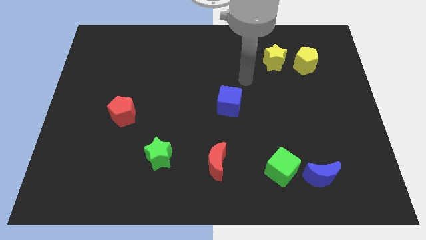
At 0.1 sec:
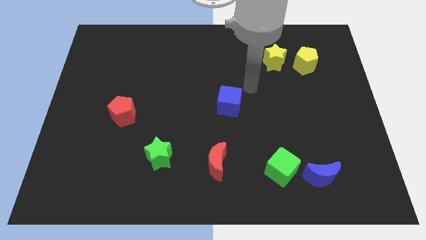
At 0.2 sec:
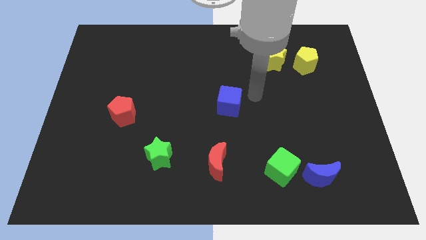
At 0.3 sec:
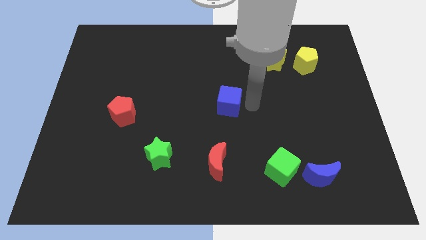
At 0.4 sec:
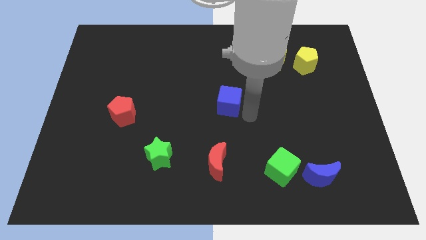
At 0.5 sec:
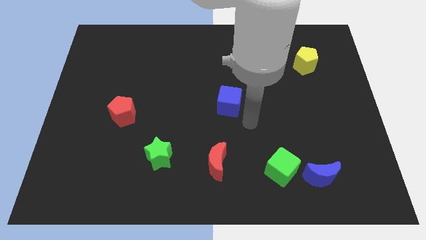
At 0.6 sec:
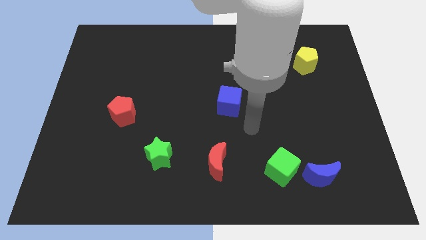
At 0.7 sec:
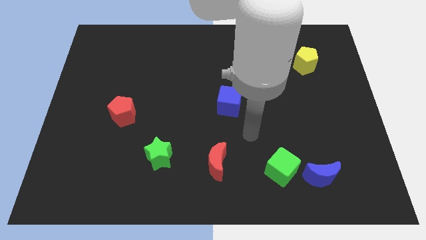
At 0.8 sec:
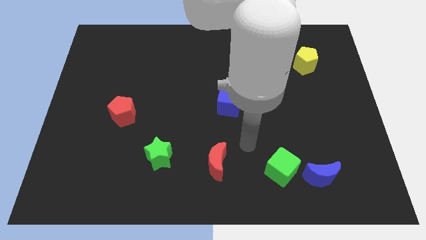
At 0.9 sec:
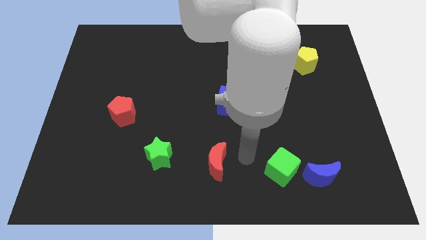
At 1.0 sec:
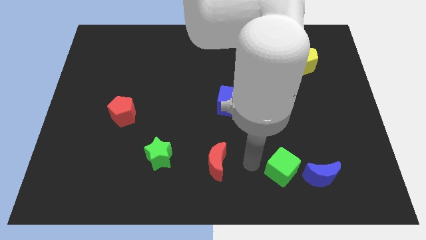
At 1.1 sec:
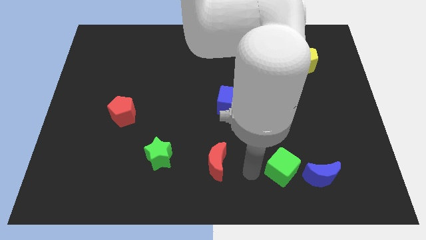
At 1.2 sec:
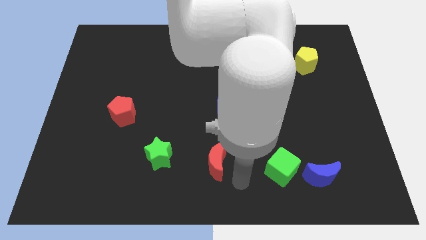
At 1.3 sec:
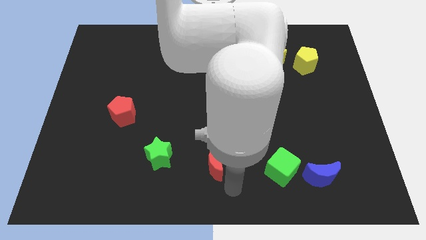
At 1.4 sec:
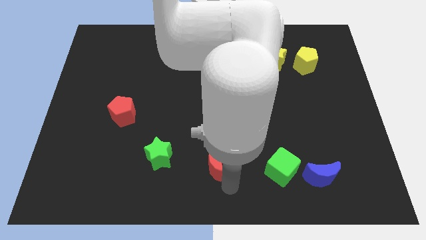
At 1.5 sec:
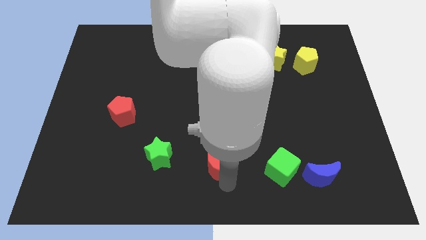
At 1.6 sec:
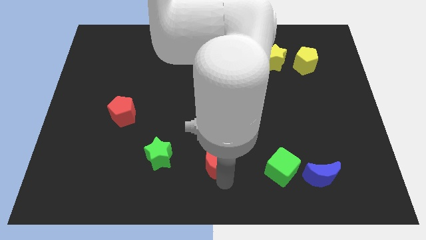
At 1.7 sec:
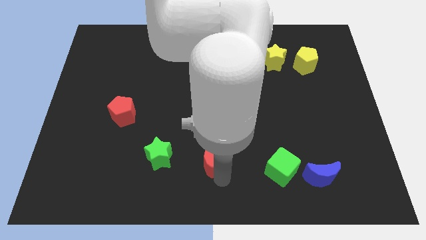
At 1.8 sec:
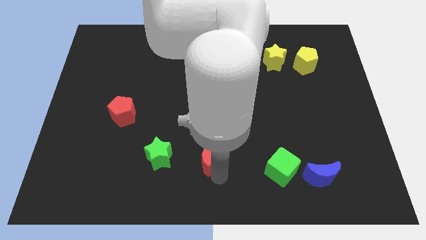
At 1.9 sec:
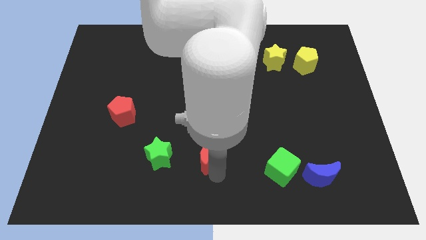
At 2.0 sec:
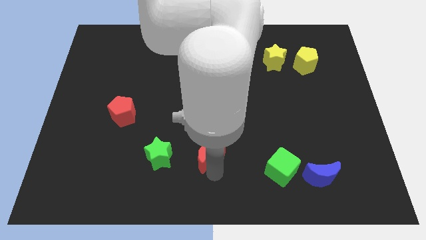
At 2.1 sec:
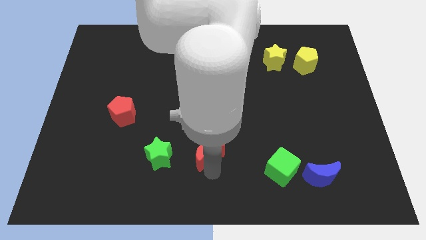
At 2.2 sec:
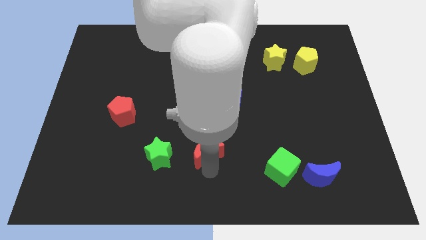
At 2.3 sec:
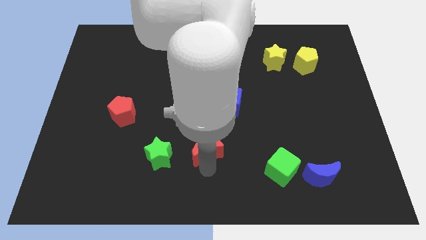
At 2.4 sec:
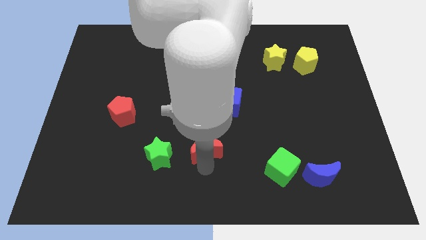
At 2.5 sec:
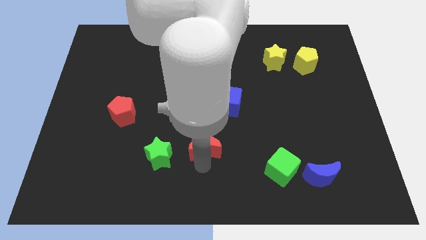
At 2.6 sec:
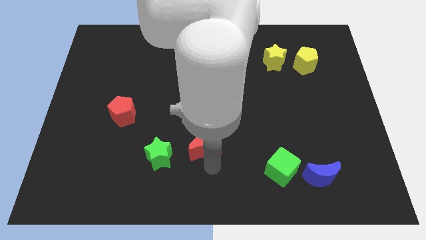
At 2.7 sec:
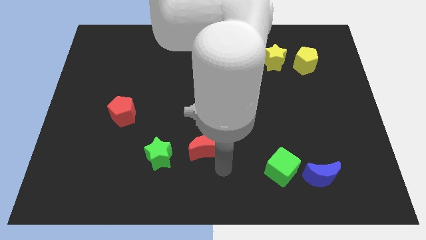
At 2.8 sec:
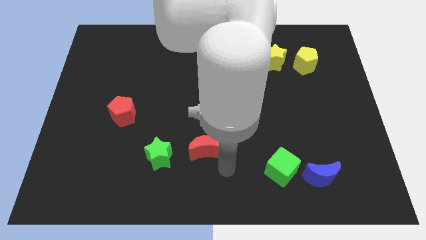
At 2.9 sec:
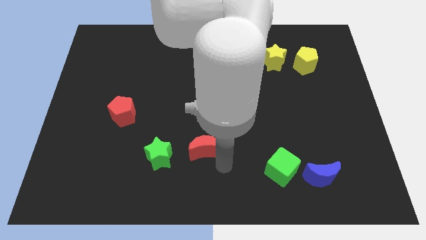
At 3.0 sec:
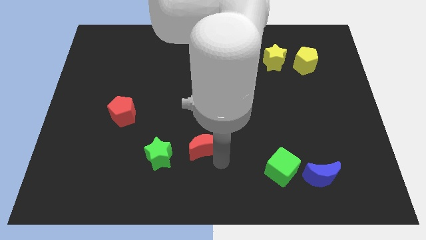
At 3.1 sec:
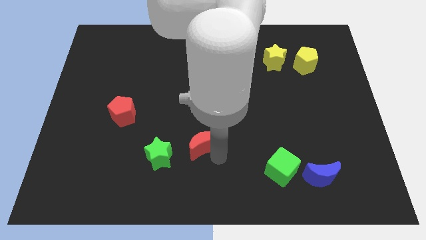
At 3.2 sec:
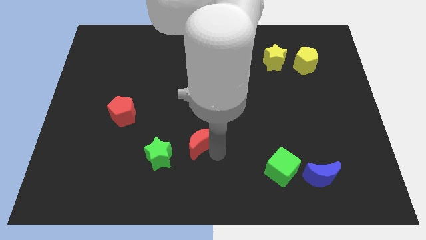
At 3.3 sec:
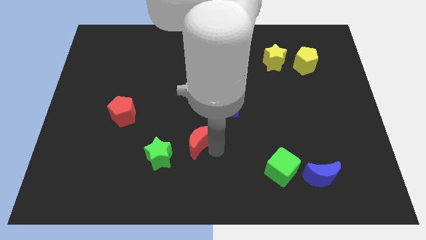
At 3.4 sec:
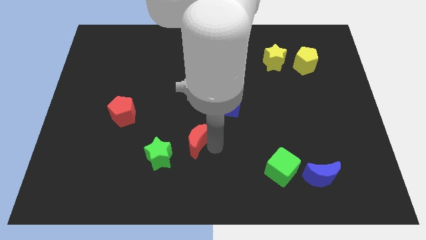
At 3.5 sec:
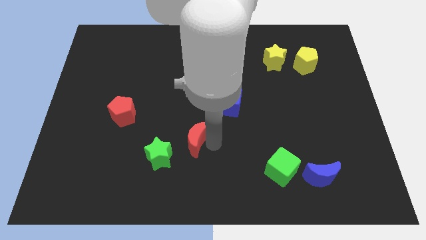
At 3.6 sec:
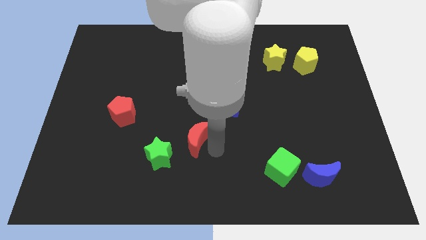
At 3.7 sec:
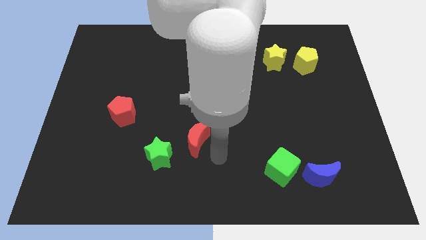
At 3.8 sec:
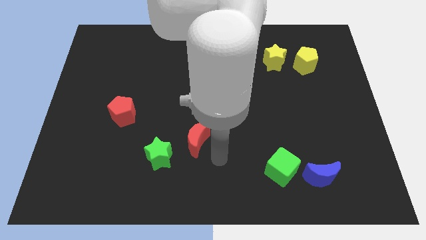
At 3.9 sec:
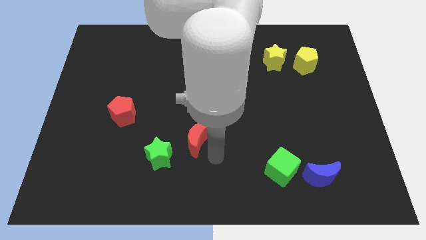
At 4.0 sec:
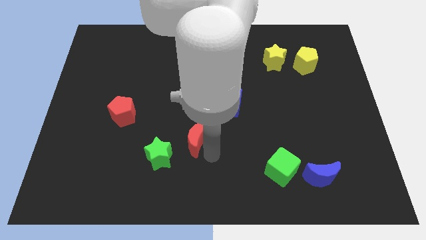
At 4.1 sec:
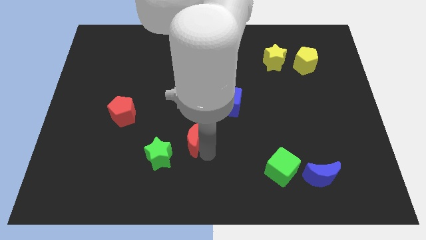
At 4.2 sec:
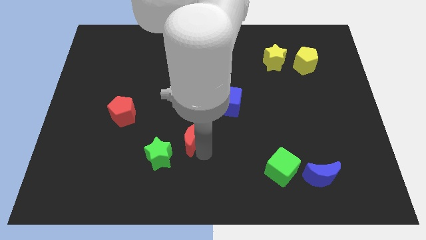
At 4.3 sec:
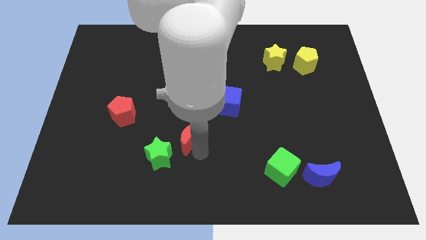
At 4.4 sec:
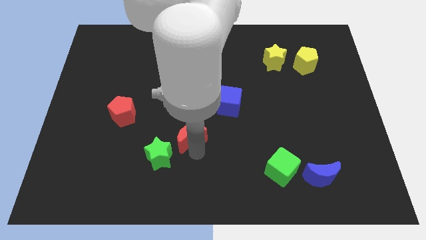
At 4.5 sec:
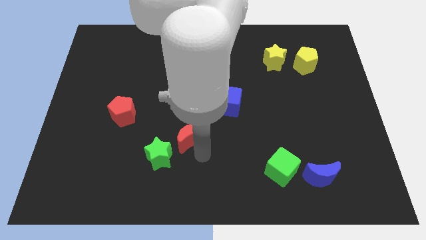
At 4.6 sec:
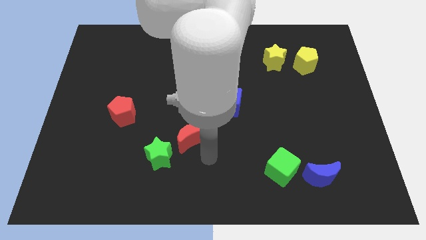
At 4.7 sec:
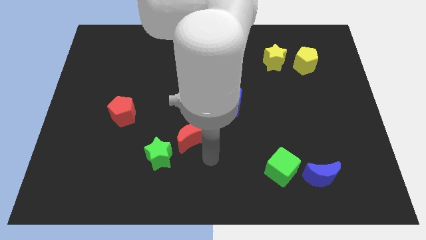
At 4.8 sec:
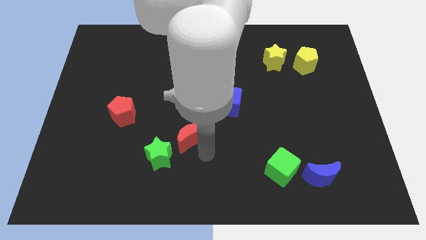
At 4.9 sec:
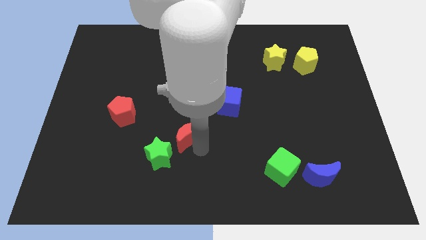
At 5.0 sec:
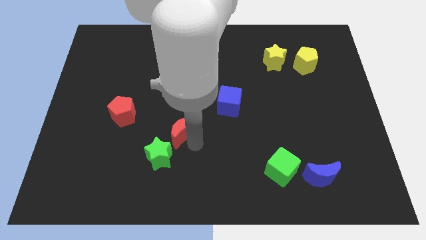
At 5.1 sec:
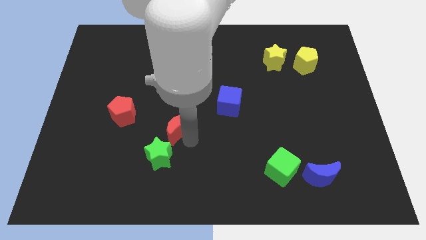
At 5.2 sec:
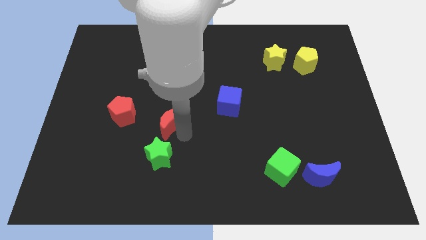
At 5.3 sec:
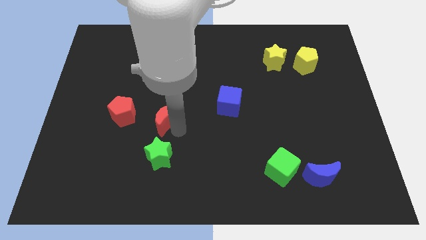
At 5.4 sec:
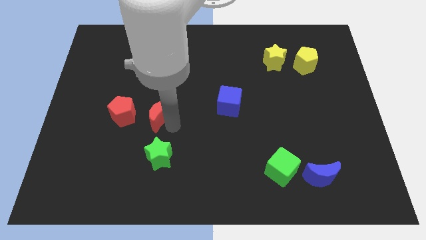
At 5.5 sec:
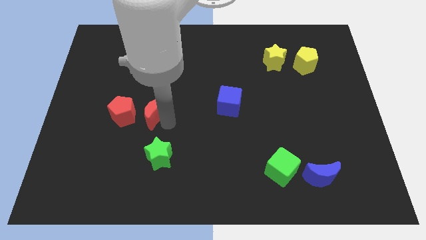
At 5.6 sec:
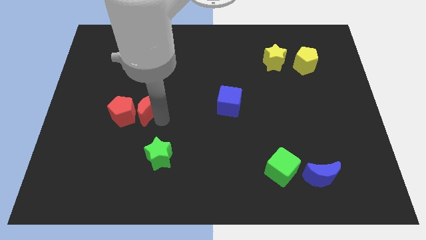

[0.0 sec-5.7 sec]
push the red moon upwards and to the left diagonally

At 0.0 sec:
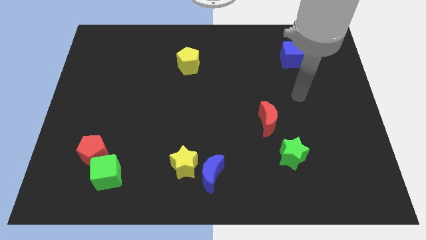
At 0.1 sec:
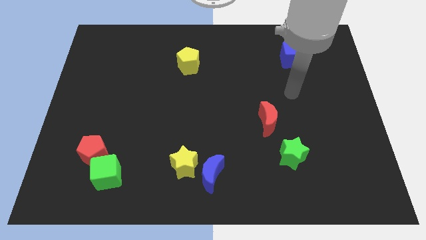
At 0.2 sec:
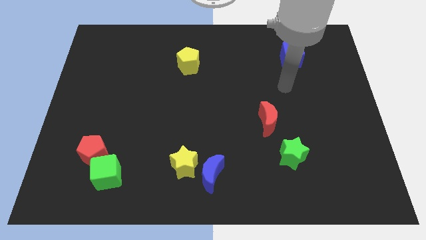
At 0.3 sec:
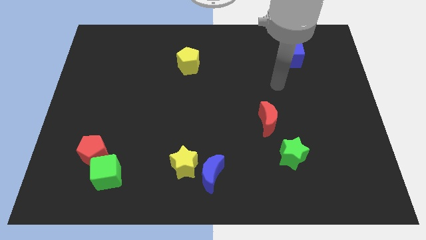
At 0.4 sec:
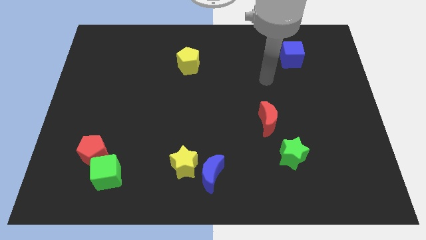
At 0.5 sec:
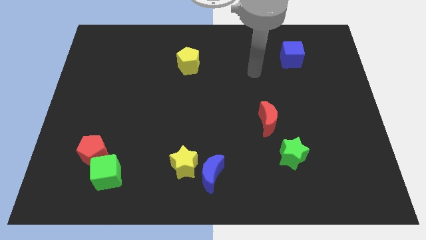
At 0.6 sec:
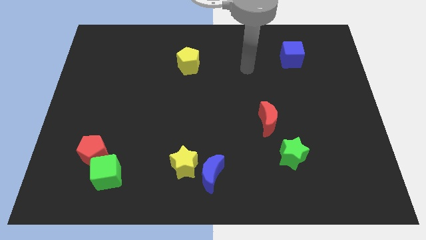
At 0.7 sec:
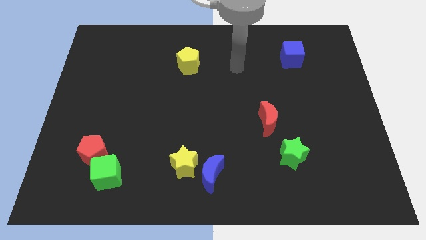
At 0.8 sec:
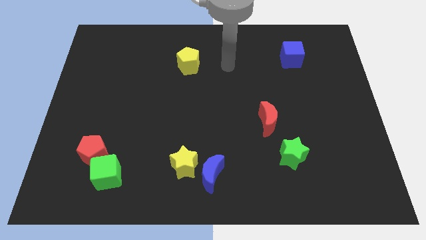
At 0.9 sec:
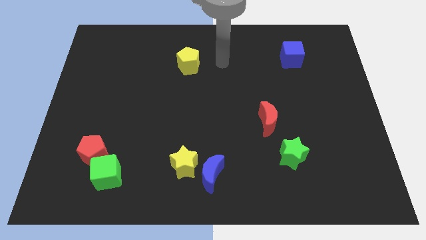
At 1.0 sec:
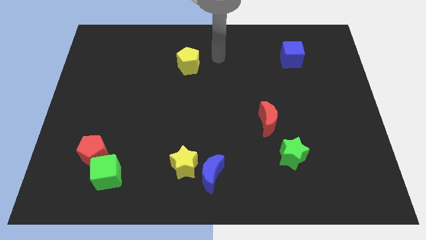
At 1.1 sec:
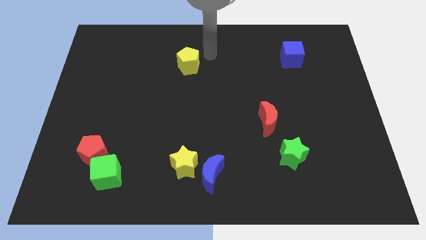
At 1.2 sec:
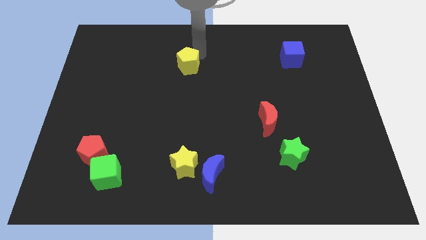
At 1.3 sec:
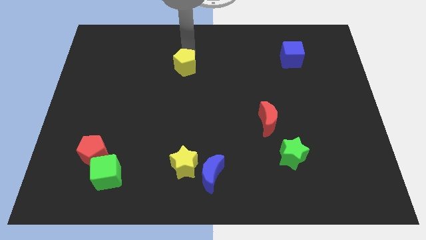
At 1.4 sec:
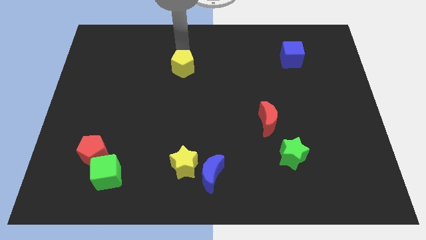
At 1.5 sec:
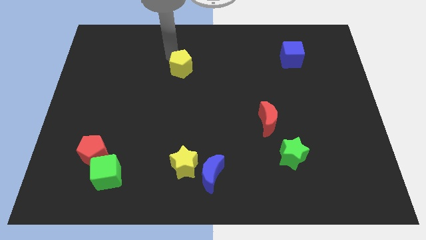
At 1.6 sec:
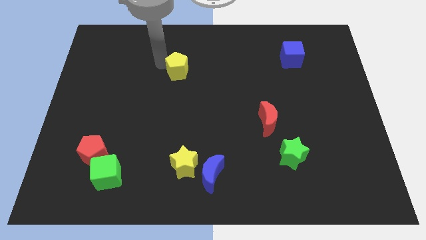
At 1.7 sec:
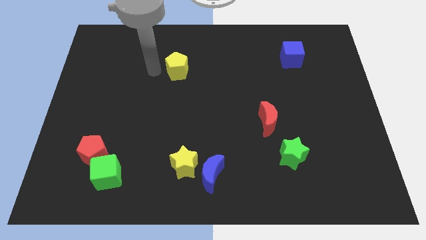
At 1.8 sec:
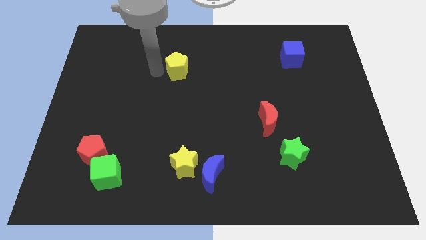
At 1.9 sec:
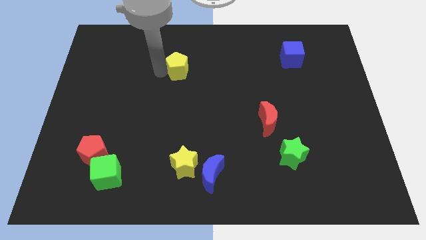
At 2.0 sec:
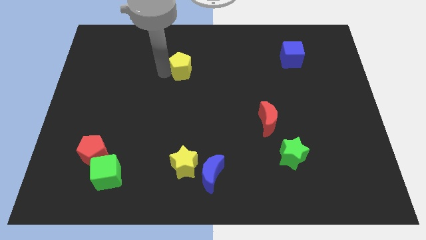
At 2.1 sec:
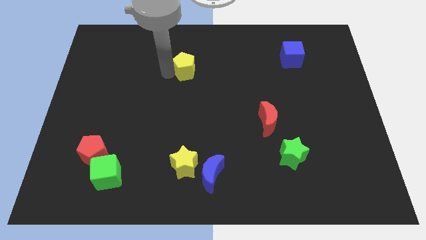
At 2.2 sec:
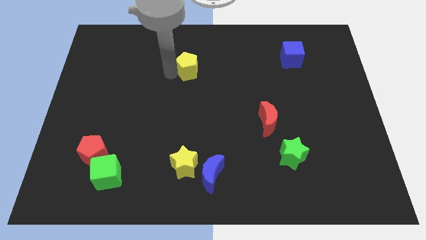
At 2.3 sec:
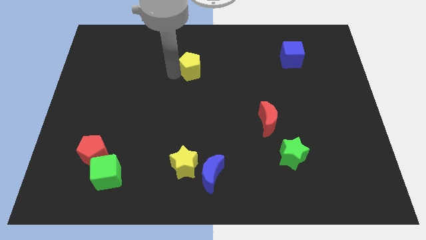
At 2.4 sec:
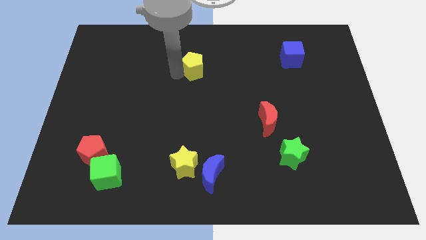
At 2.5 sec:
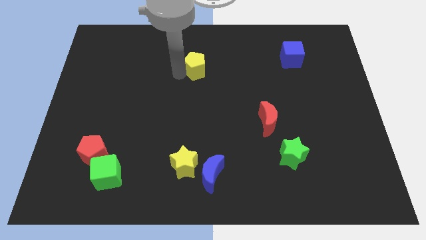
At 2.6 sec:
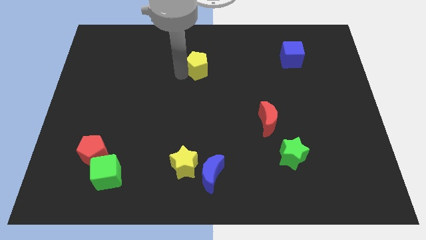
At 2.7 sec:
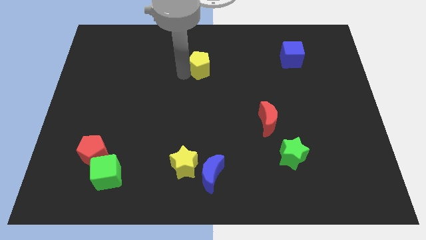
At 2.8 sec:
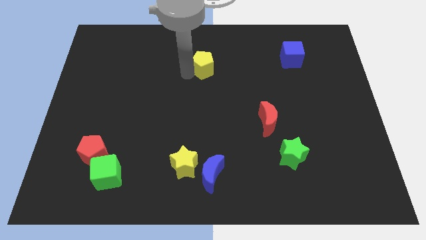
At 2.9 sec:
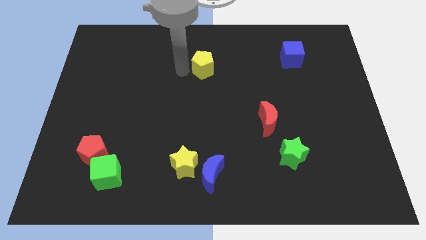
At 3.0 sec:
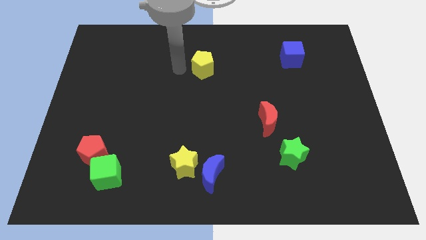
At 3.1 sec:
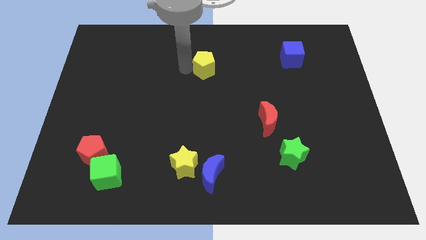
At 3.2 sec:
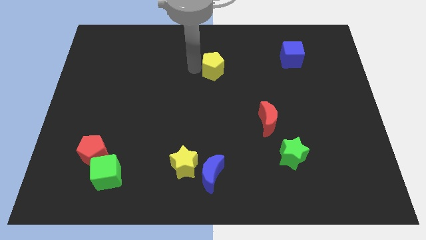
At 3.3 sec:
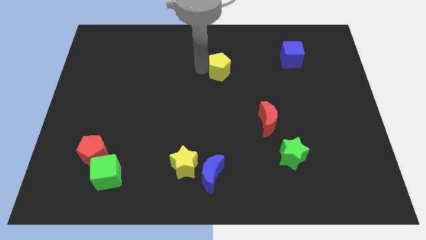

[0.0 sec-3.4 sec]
slide the yellow pentagon a little bit to the right
